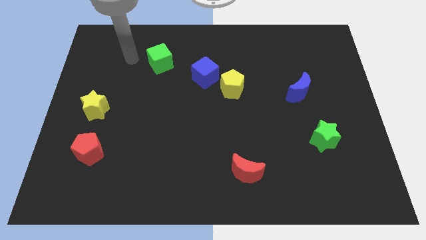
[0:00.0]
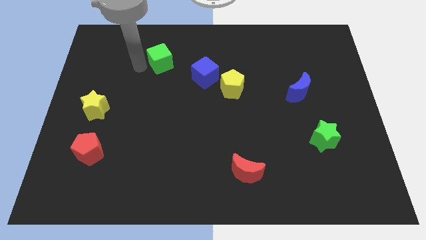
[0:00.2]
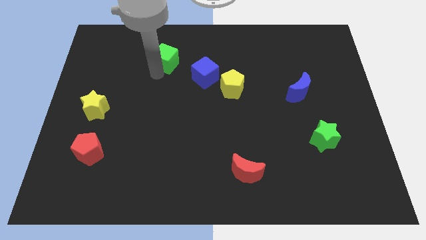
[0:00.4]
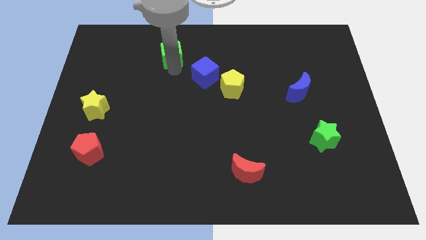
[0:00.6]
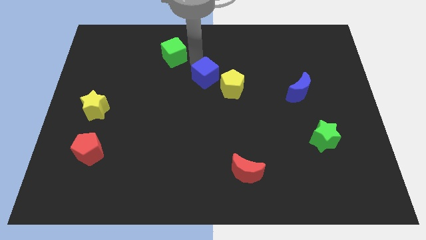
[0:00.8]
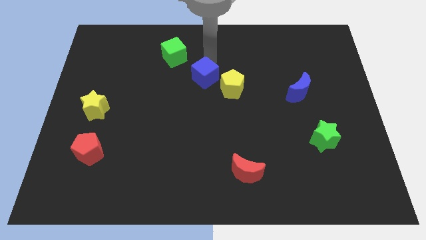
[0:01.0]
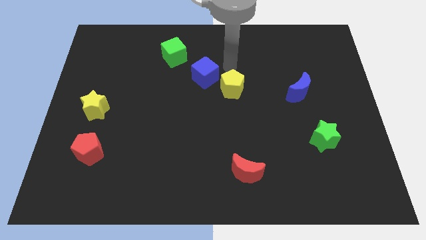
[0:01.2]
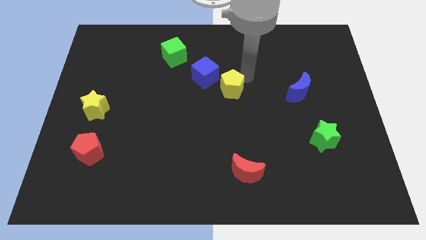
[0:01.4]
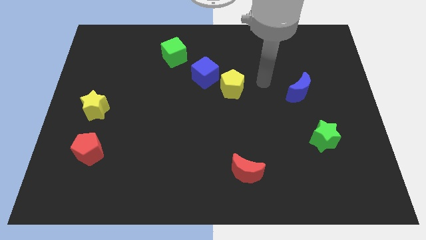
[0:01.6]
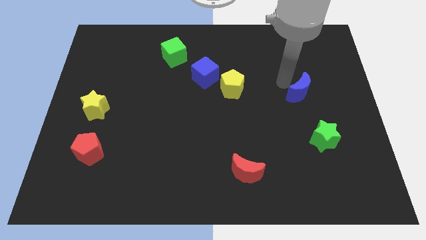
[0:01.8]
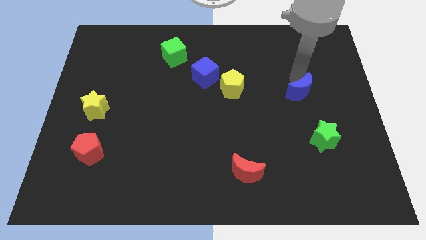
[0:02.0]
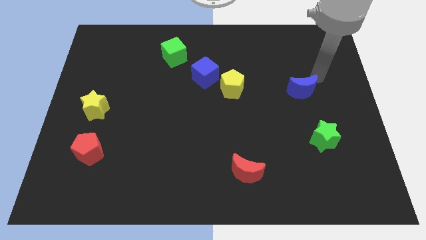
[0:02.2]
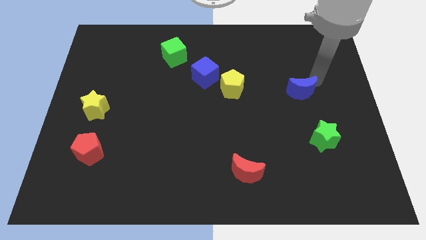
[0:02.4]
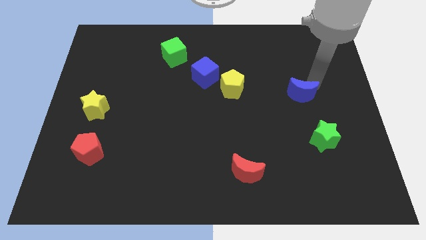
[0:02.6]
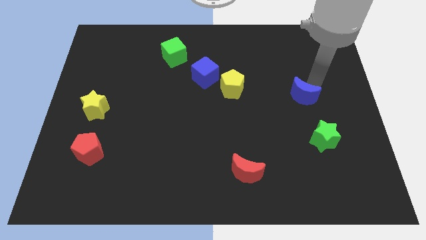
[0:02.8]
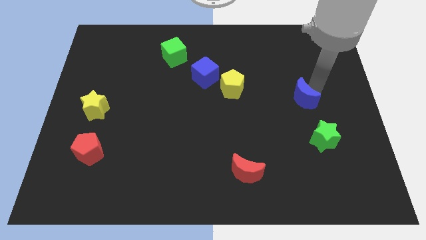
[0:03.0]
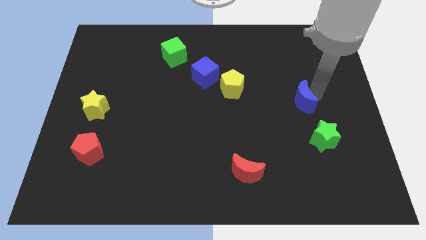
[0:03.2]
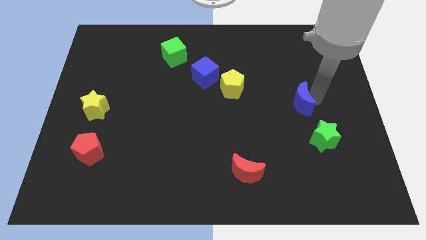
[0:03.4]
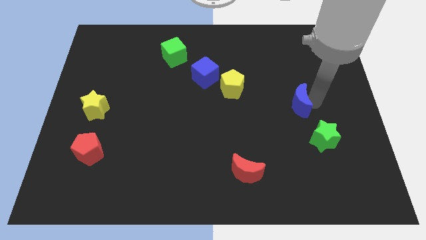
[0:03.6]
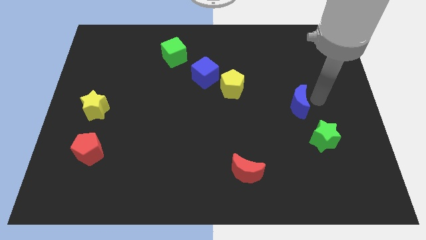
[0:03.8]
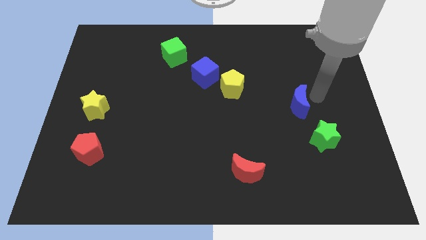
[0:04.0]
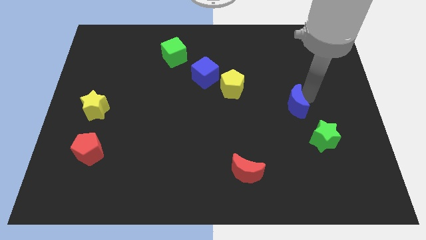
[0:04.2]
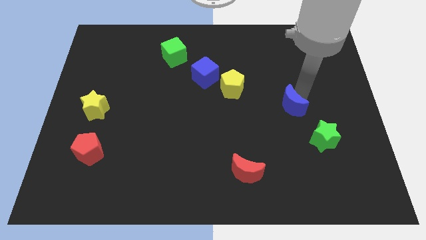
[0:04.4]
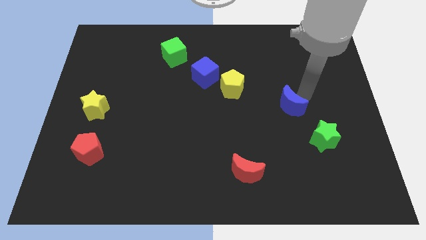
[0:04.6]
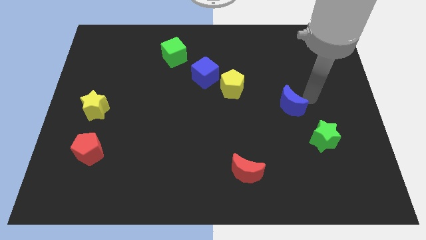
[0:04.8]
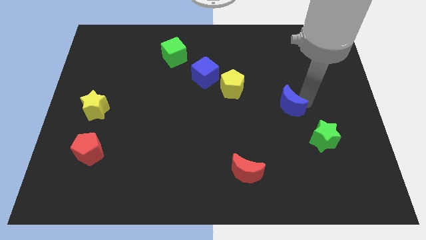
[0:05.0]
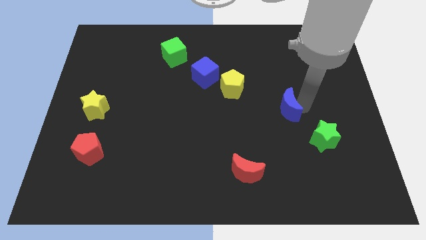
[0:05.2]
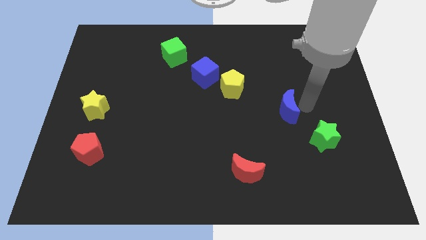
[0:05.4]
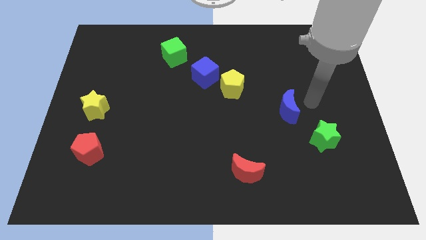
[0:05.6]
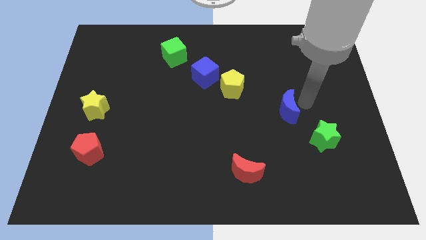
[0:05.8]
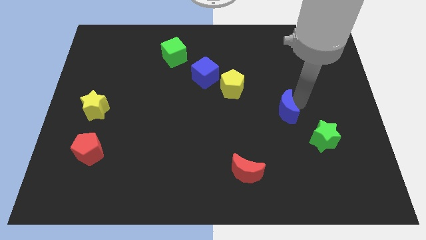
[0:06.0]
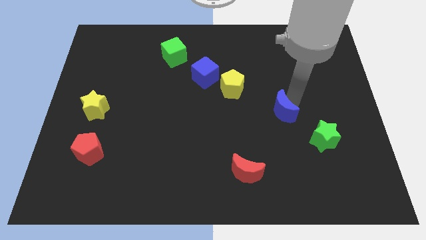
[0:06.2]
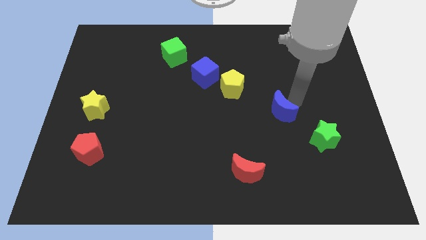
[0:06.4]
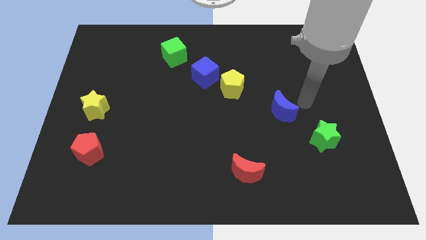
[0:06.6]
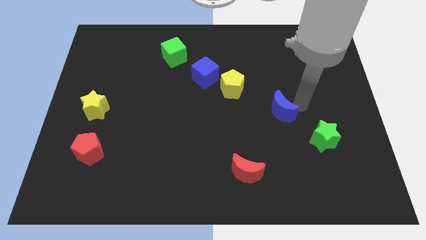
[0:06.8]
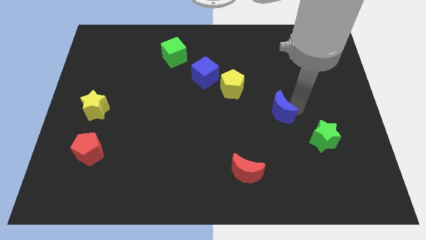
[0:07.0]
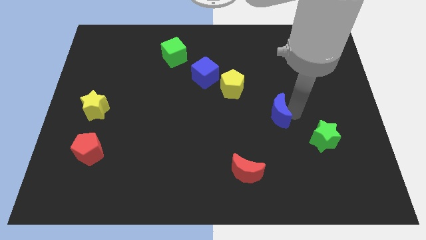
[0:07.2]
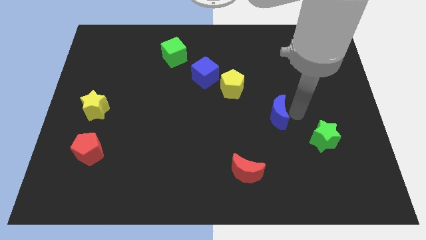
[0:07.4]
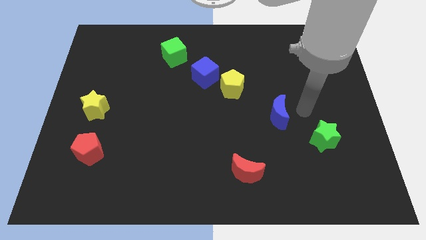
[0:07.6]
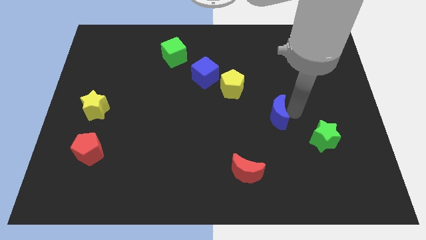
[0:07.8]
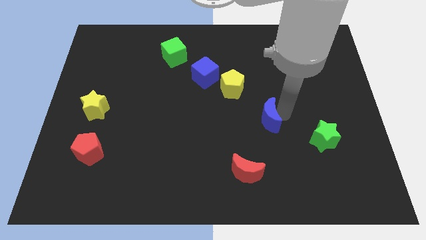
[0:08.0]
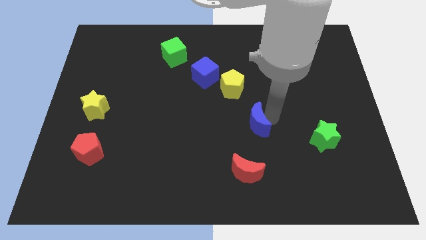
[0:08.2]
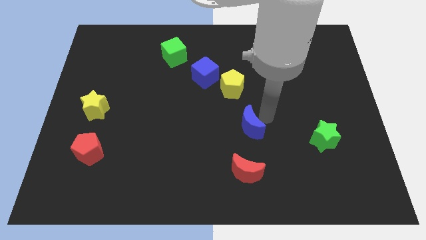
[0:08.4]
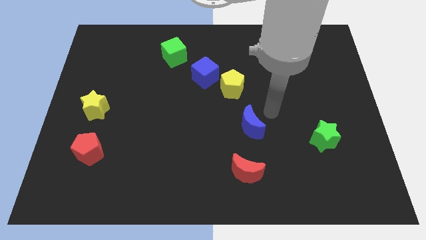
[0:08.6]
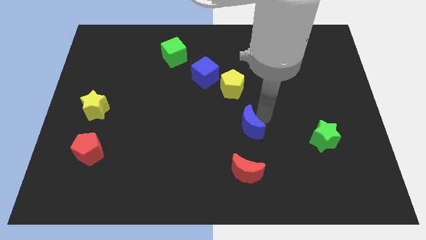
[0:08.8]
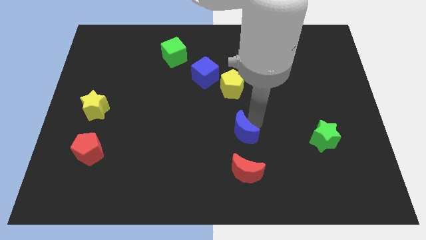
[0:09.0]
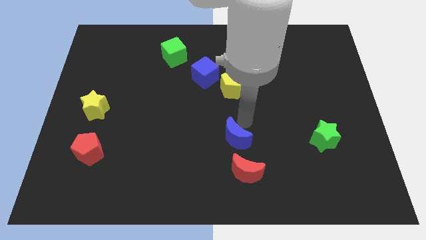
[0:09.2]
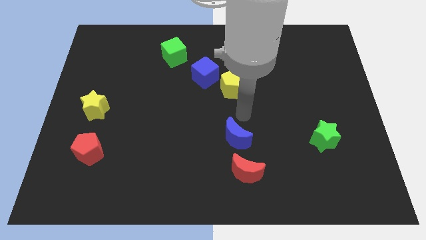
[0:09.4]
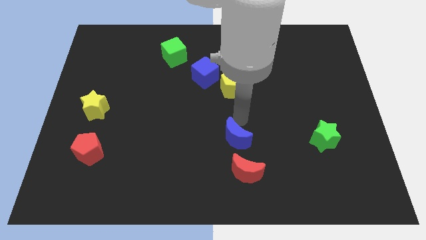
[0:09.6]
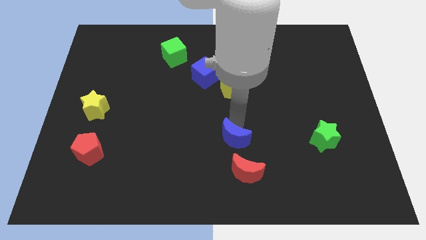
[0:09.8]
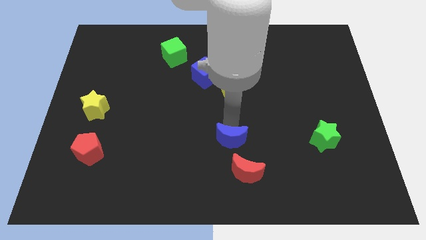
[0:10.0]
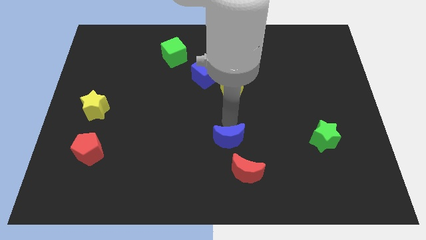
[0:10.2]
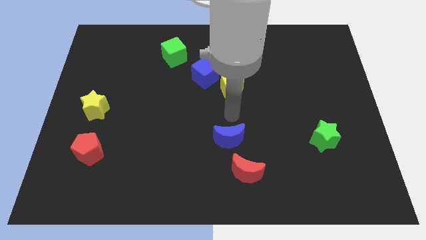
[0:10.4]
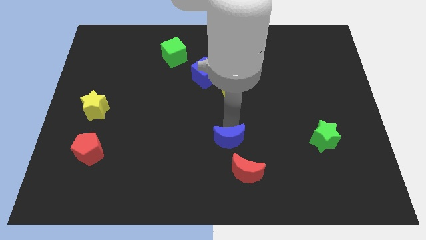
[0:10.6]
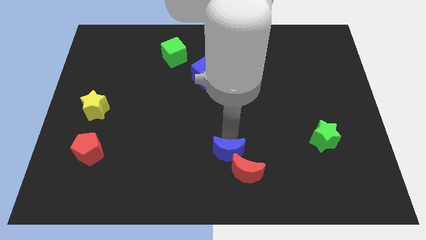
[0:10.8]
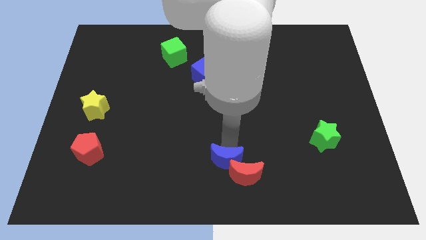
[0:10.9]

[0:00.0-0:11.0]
move the blue moon to the bottom
